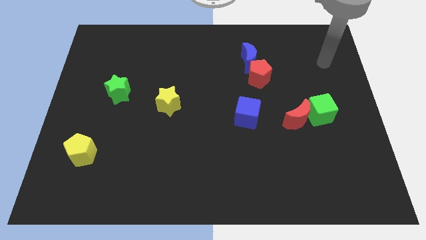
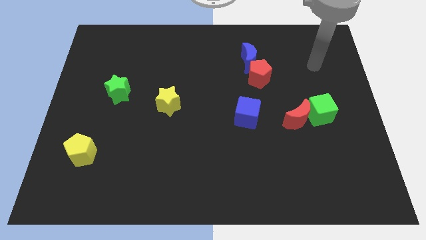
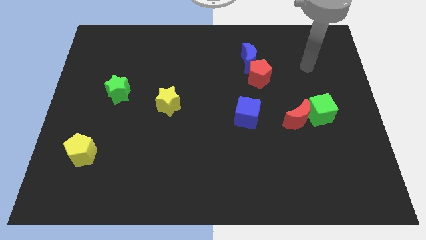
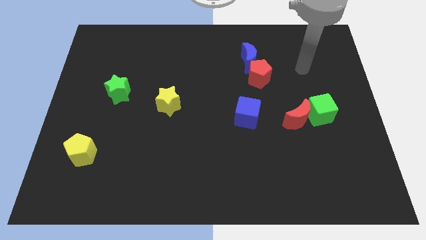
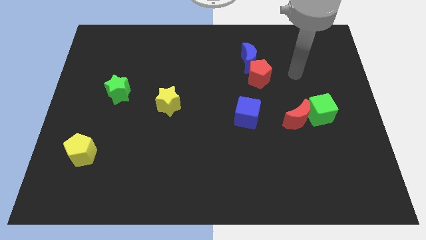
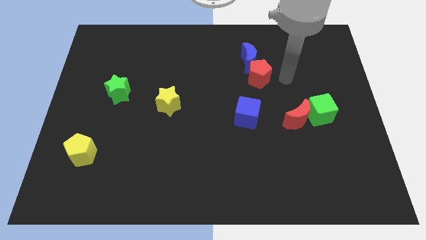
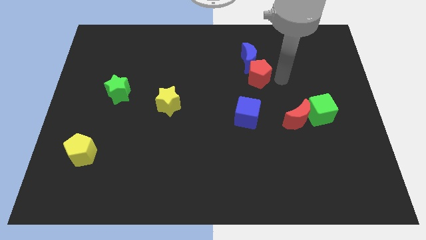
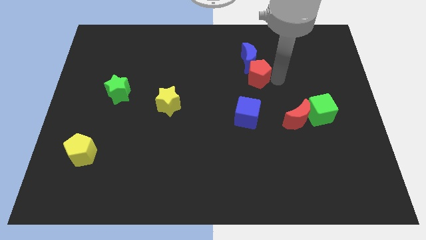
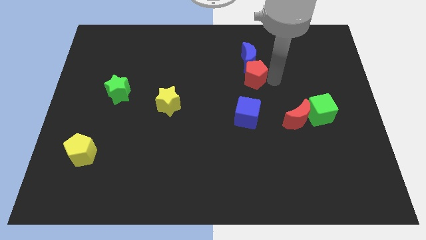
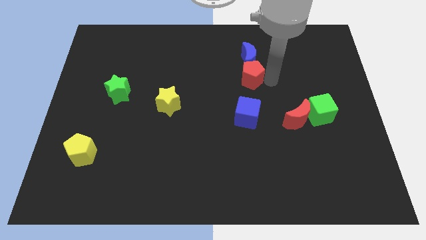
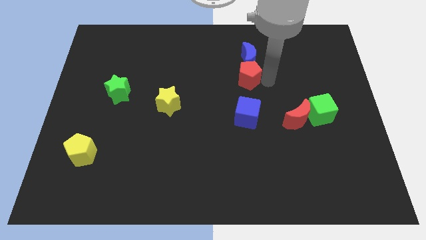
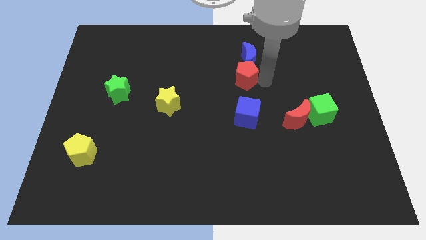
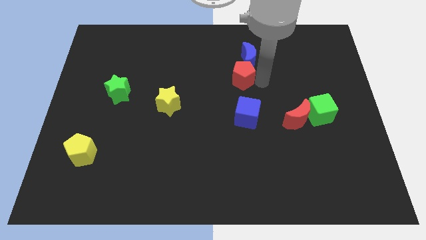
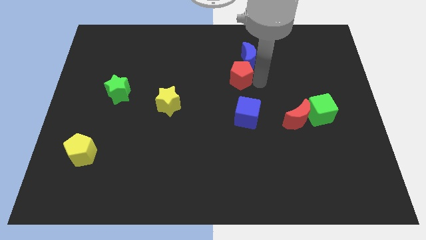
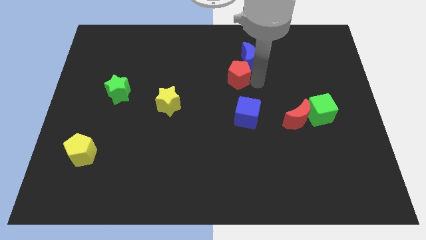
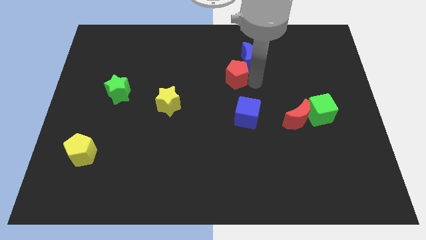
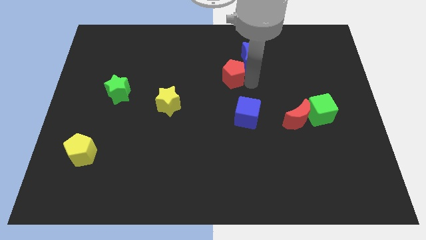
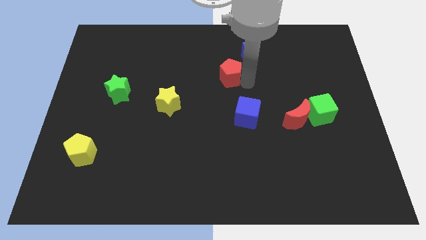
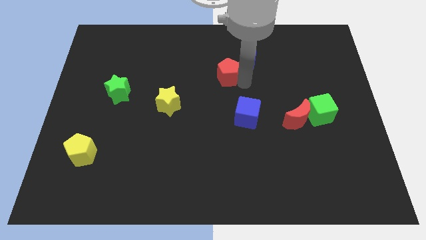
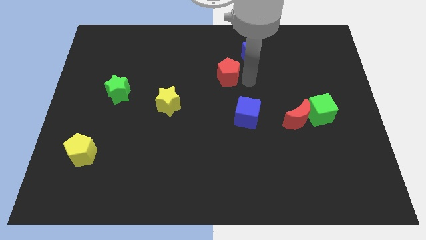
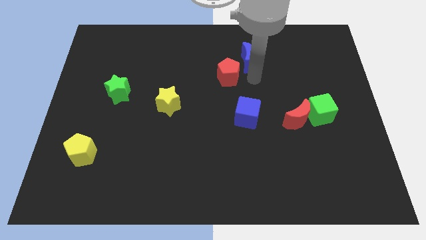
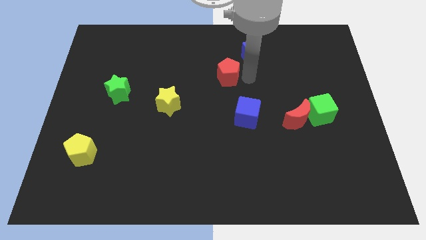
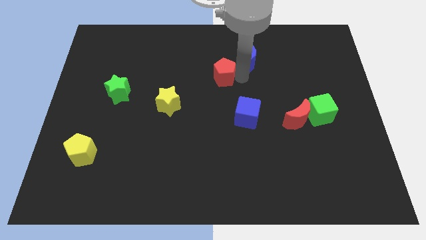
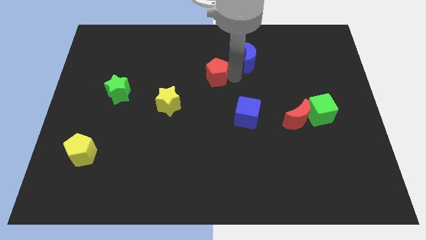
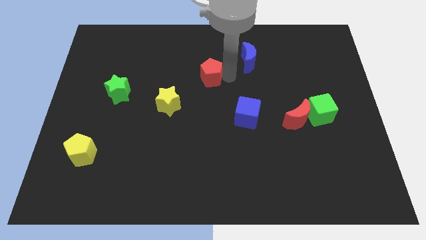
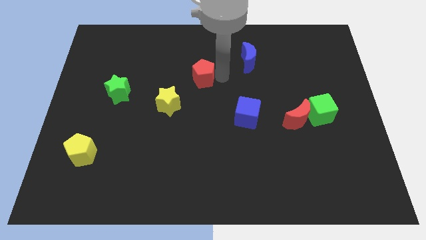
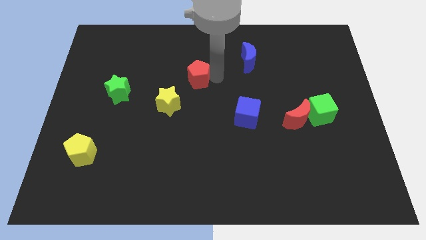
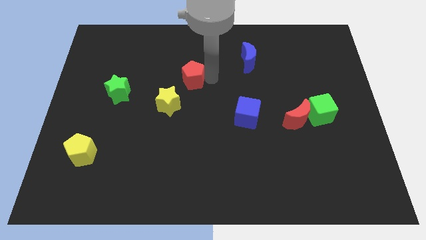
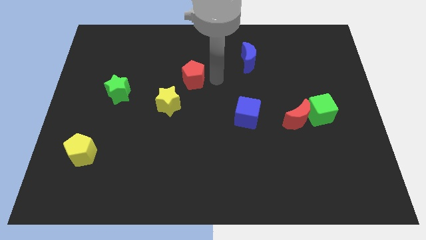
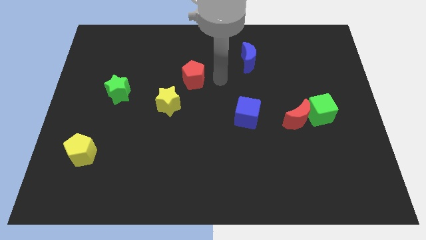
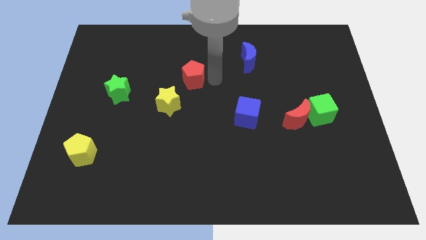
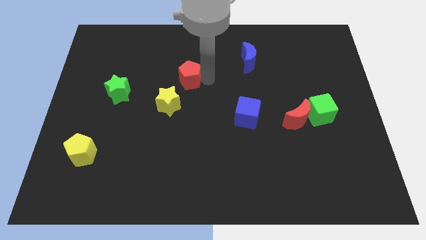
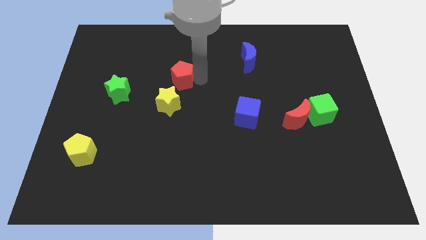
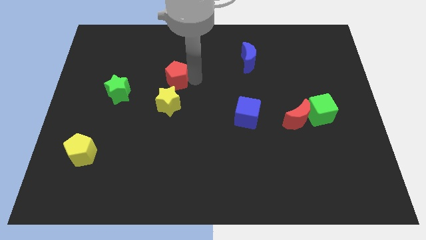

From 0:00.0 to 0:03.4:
slide the red pentagon left

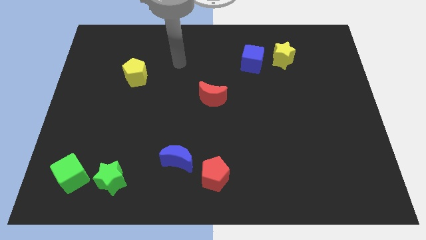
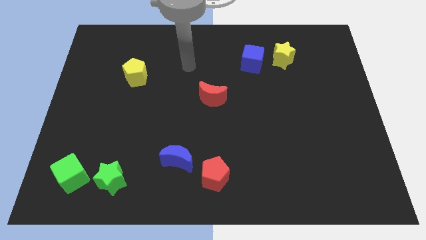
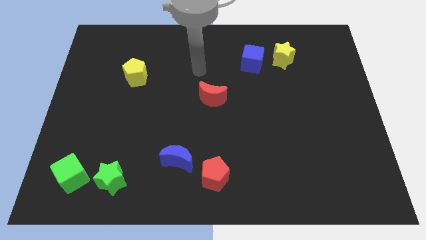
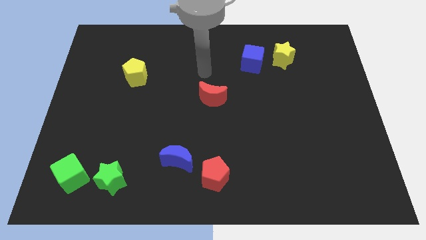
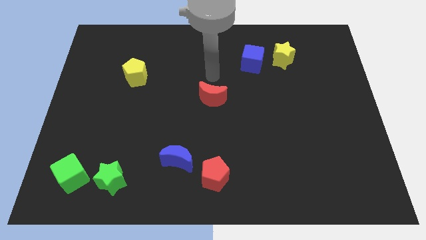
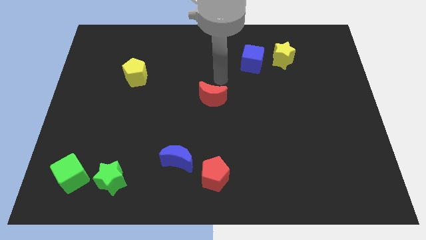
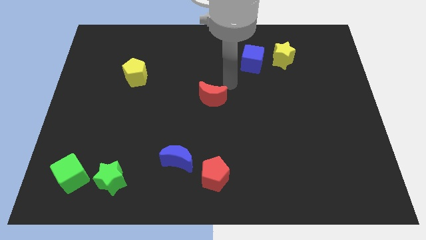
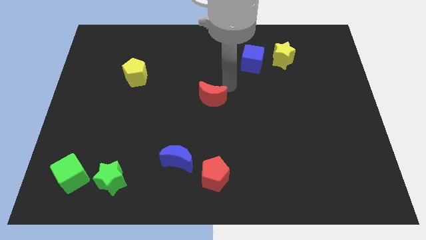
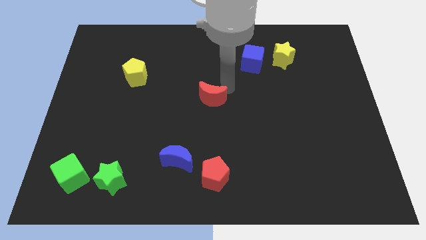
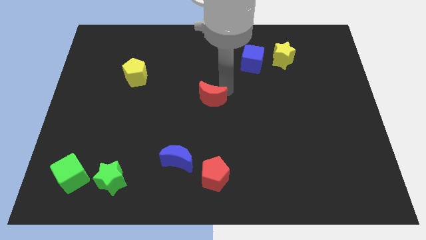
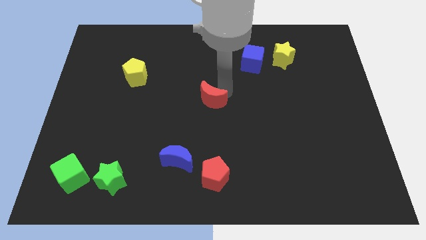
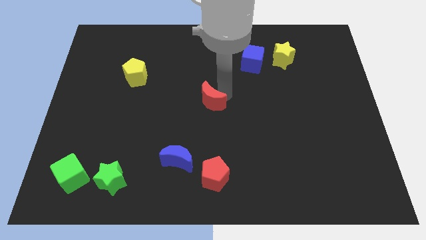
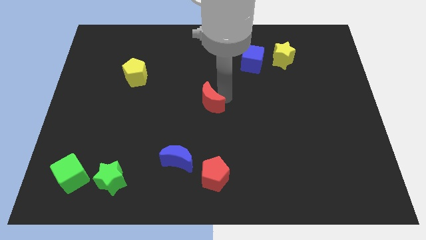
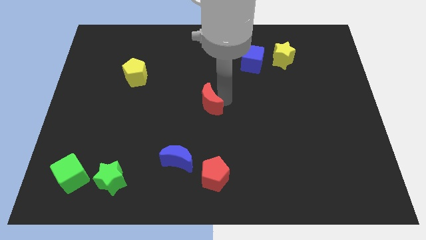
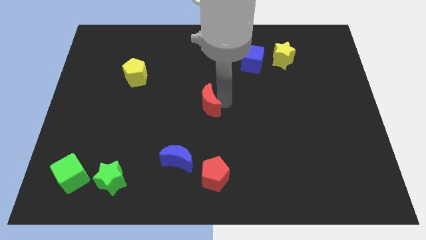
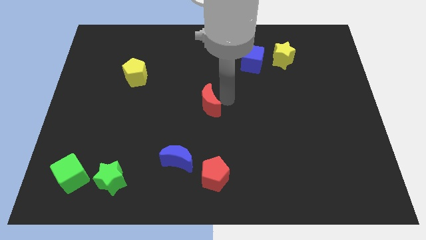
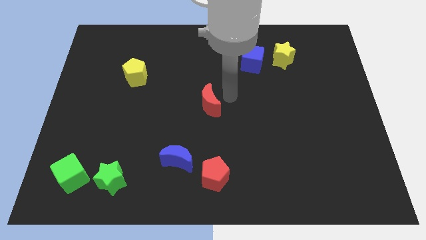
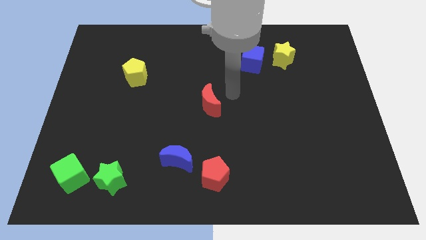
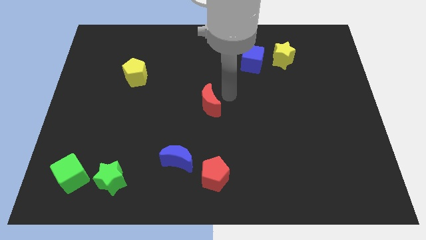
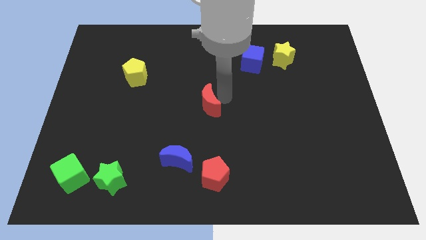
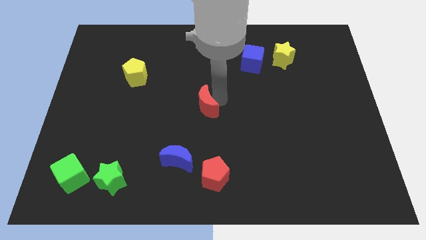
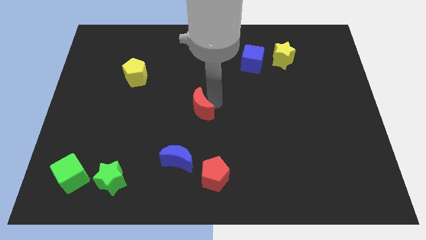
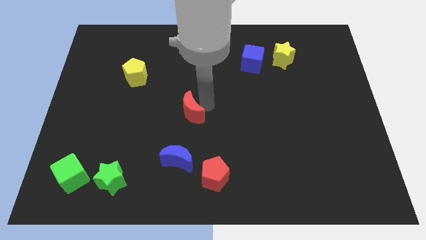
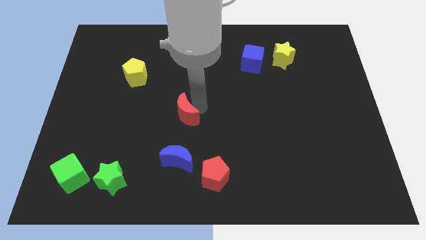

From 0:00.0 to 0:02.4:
slightly slide the red moon downwards and left diagonally

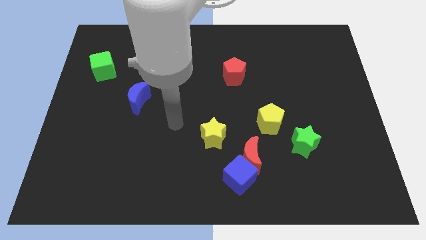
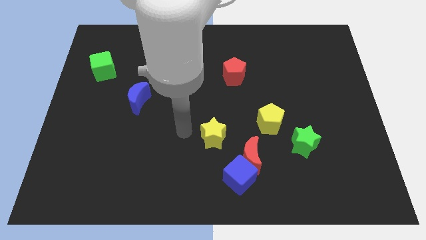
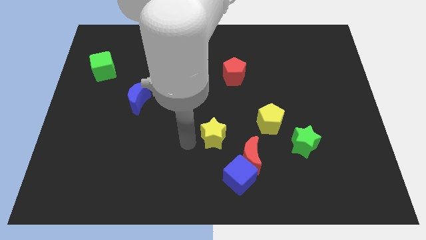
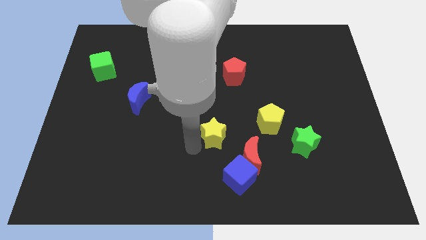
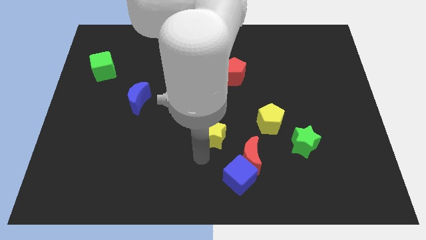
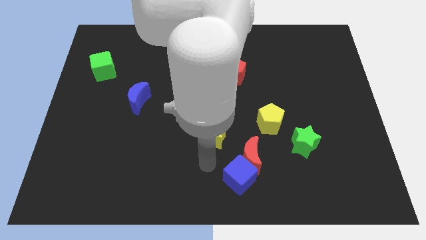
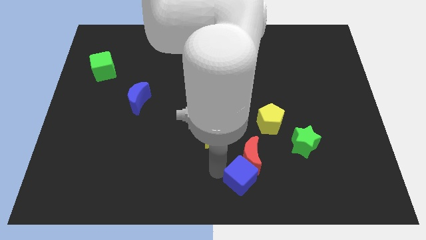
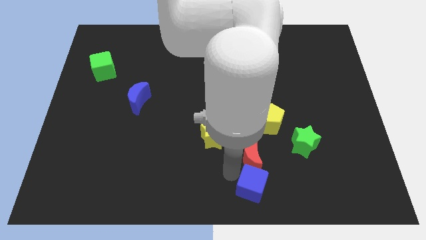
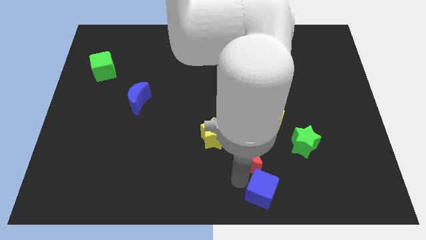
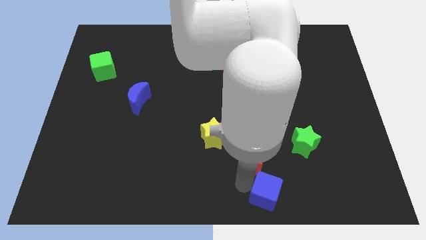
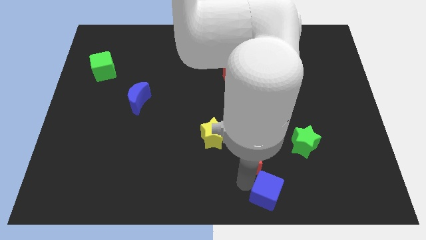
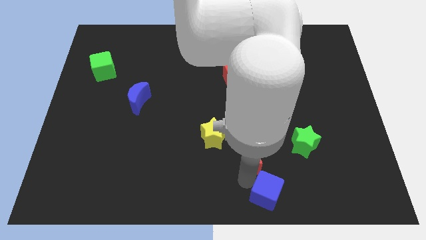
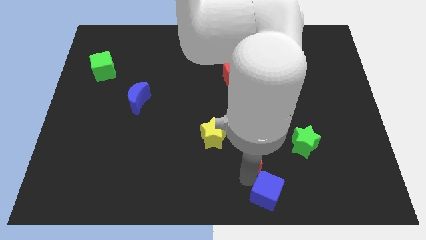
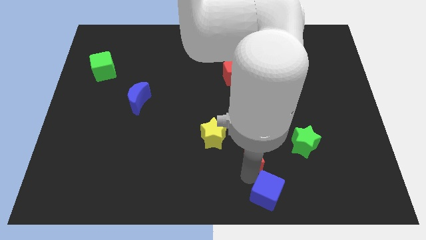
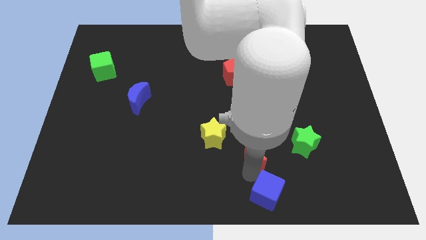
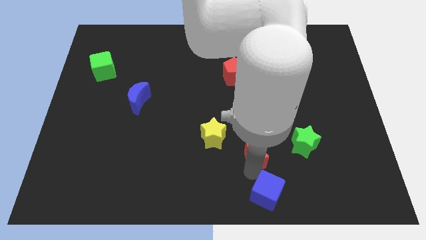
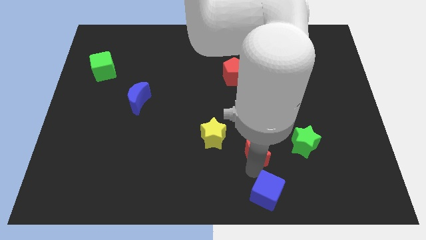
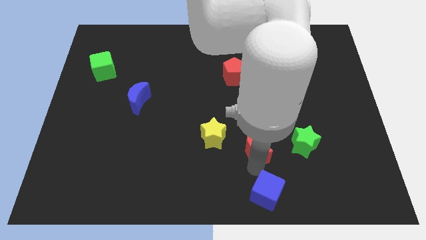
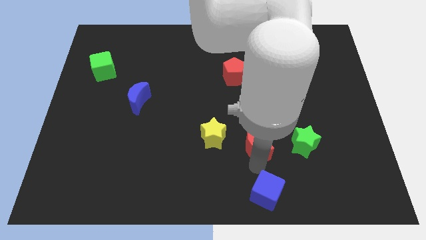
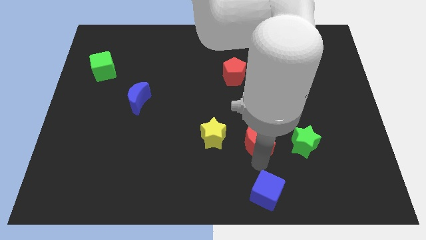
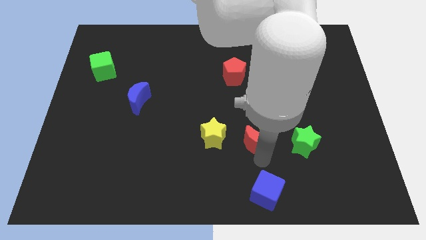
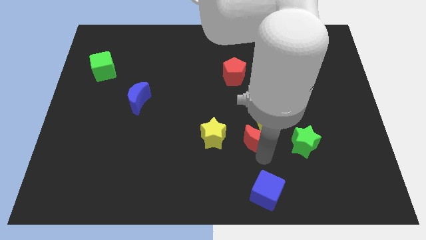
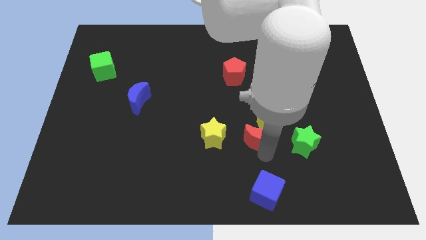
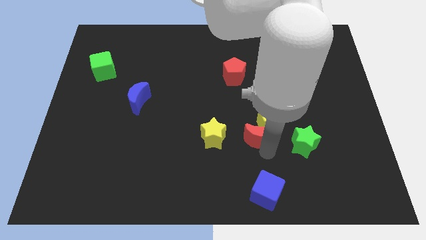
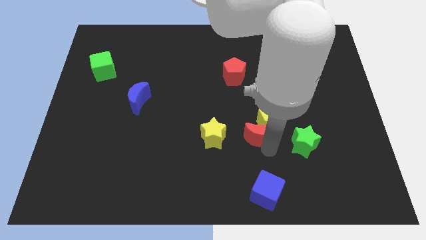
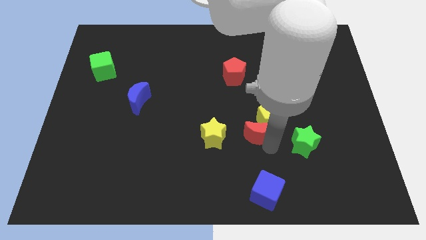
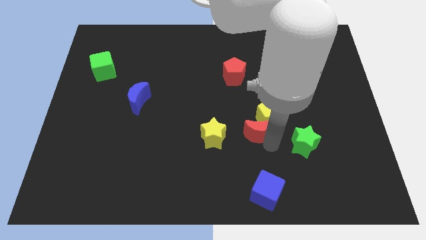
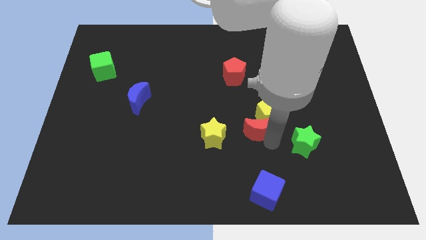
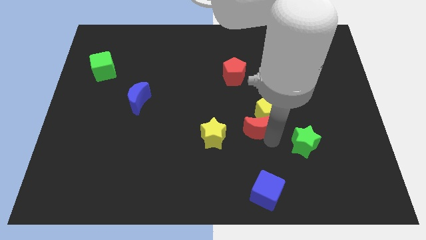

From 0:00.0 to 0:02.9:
slide the red moon slightly up
